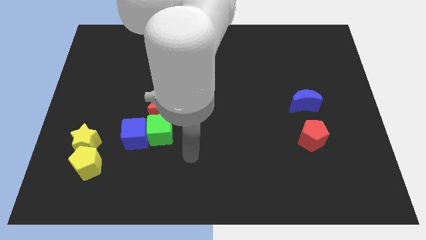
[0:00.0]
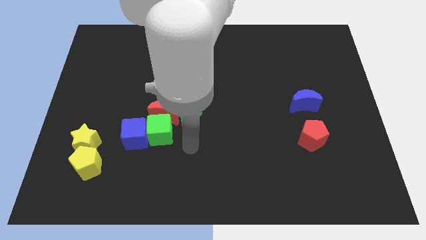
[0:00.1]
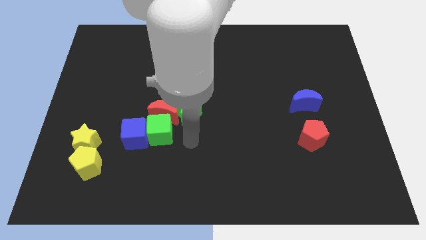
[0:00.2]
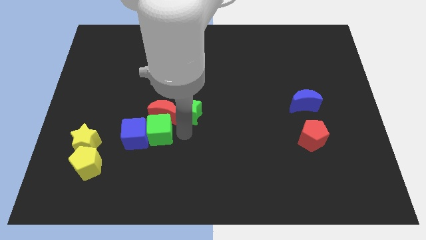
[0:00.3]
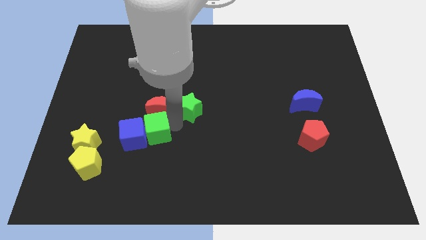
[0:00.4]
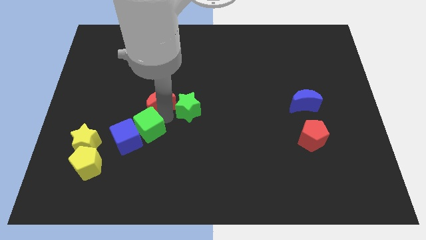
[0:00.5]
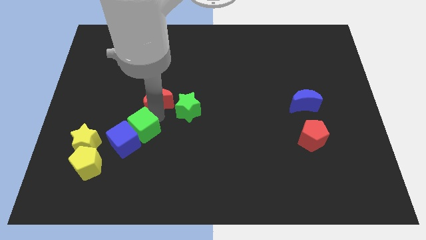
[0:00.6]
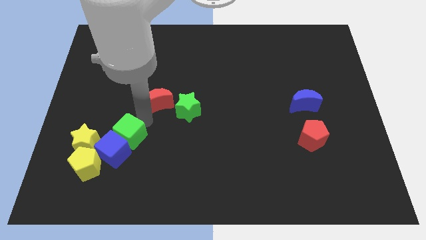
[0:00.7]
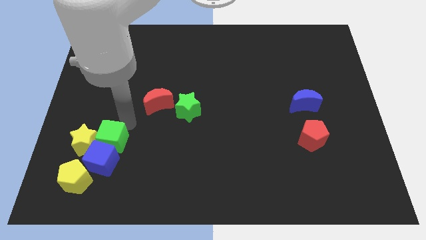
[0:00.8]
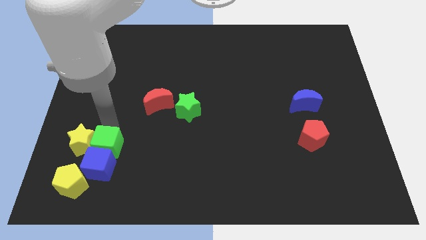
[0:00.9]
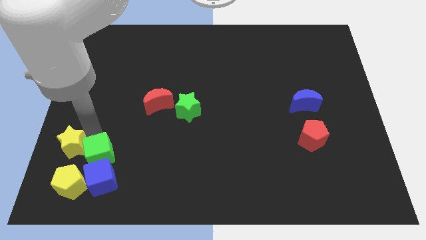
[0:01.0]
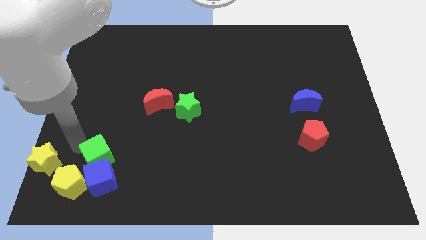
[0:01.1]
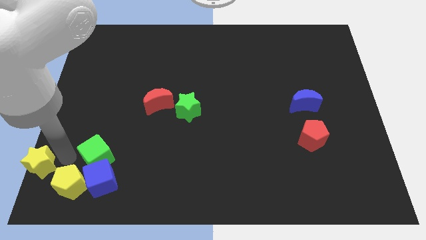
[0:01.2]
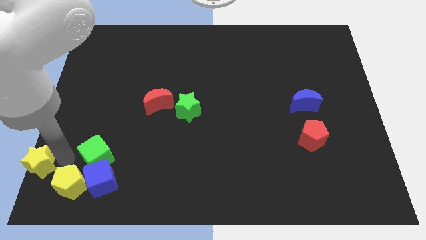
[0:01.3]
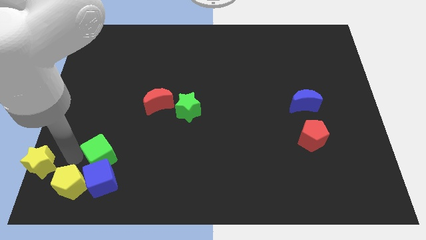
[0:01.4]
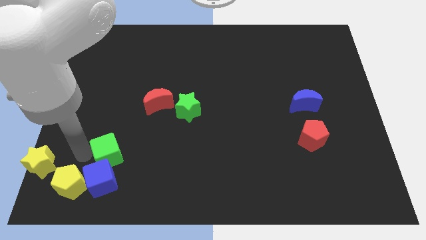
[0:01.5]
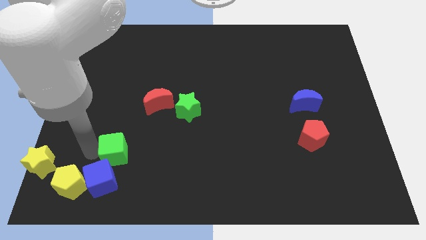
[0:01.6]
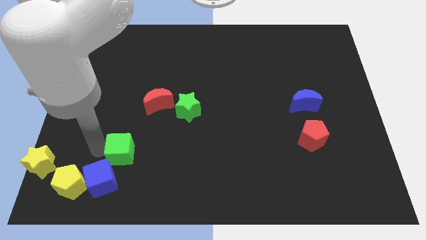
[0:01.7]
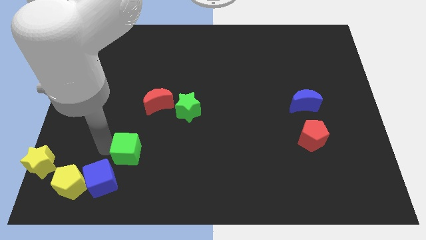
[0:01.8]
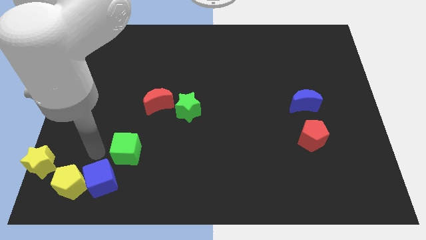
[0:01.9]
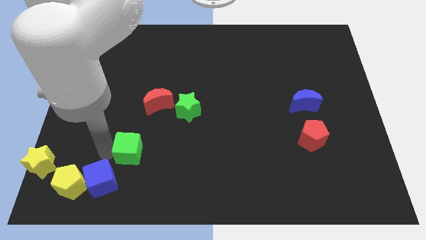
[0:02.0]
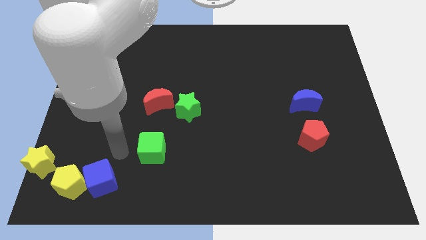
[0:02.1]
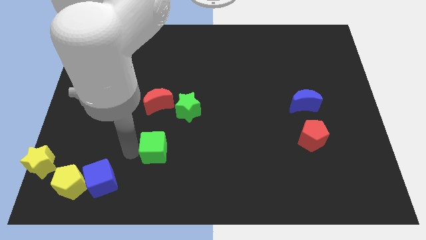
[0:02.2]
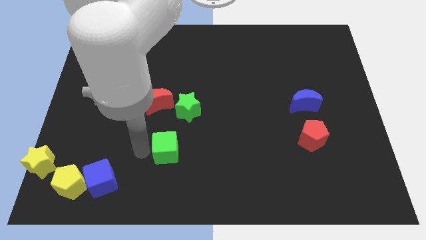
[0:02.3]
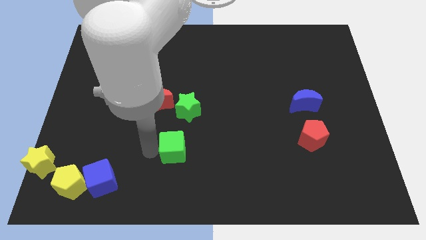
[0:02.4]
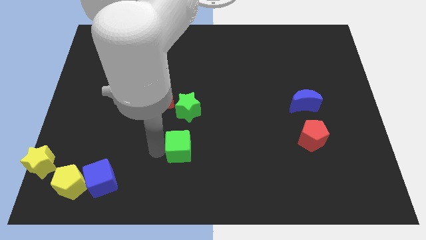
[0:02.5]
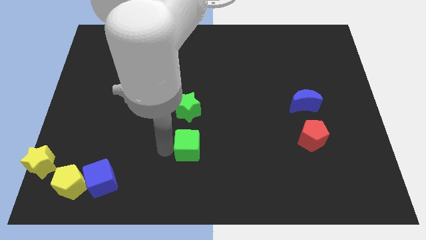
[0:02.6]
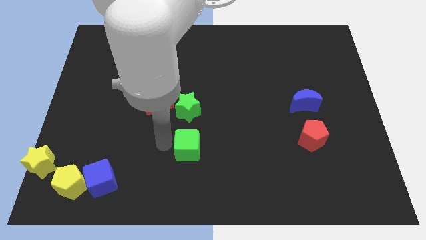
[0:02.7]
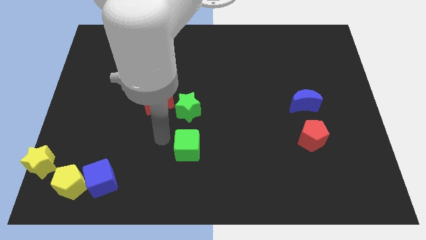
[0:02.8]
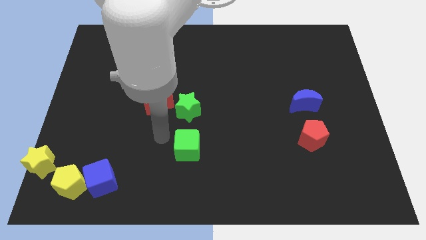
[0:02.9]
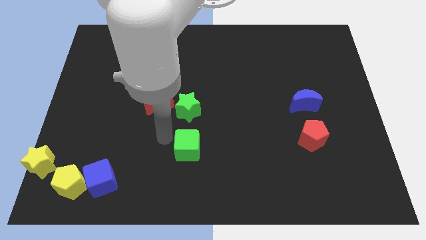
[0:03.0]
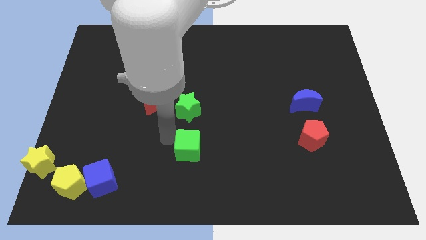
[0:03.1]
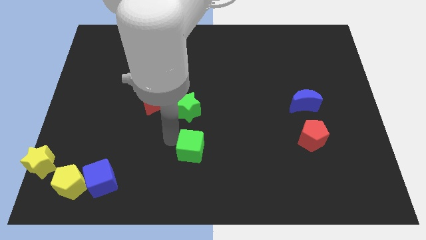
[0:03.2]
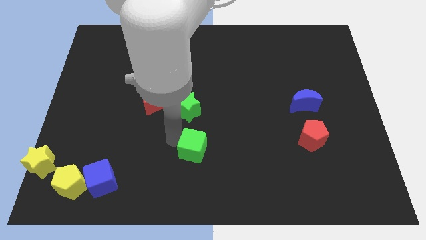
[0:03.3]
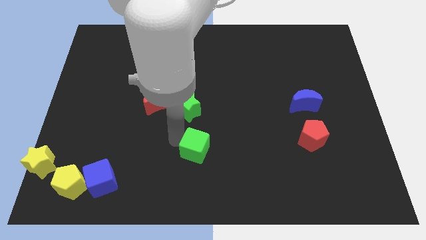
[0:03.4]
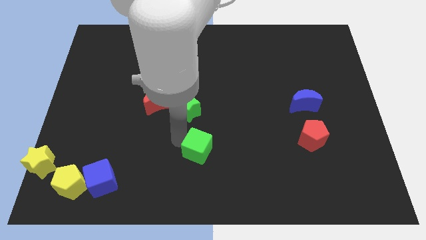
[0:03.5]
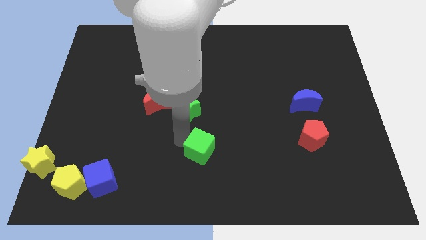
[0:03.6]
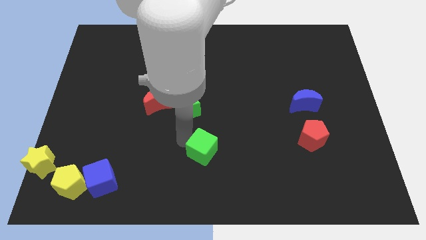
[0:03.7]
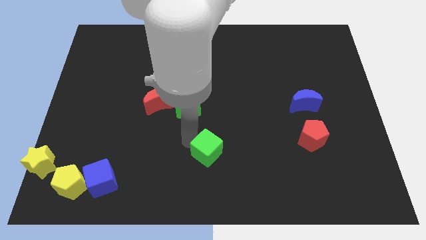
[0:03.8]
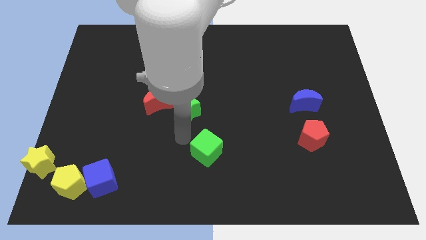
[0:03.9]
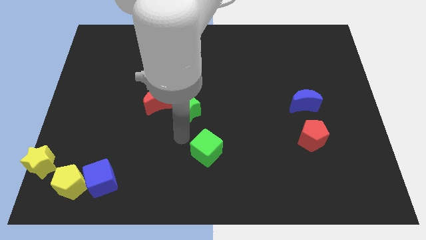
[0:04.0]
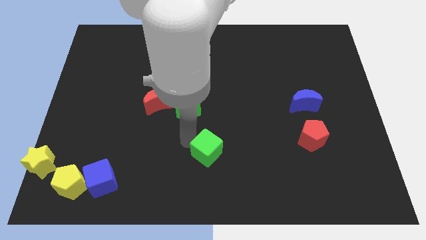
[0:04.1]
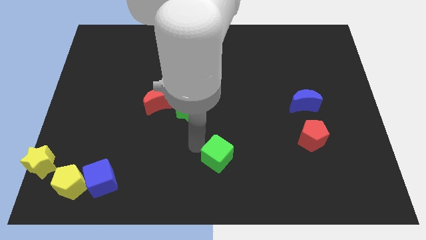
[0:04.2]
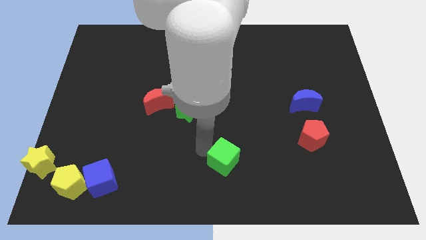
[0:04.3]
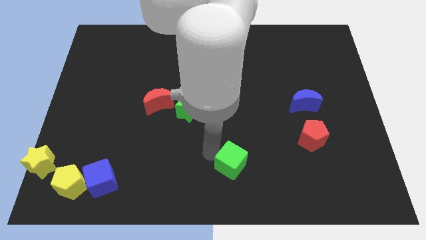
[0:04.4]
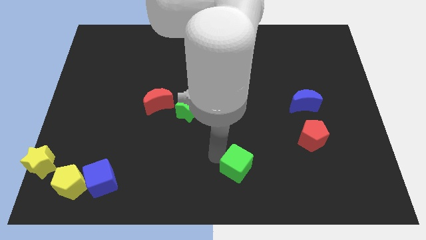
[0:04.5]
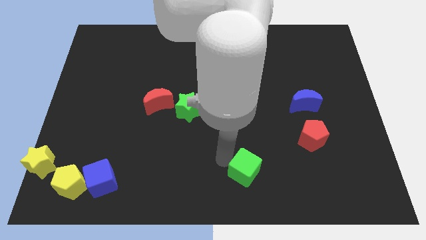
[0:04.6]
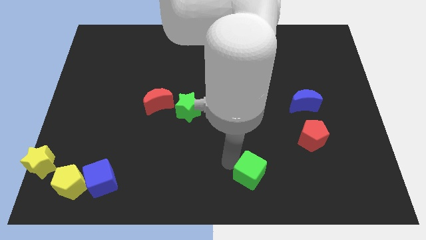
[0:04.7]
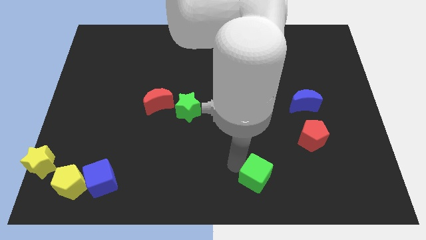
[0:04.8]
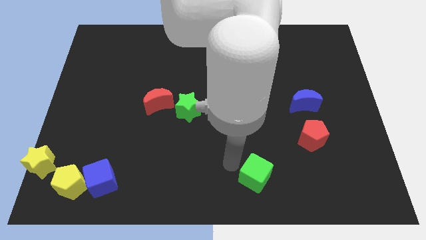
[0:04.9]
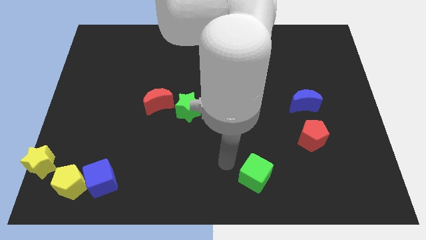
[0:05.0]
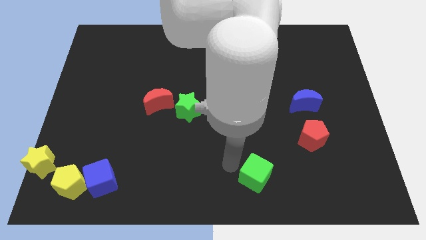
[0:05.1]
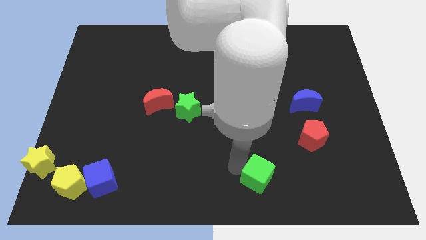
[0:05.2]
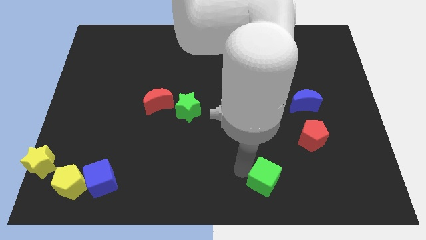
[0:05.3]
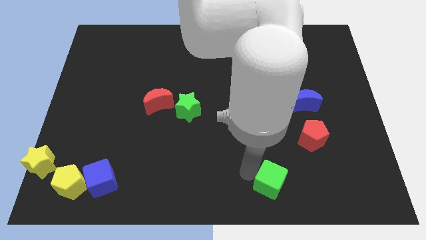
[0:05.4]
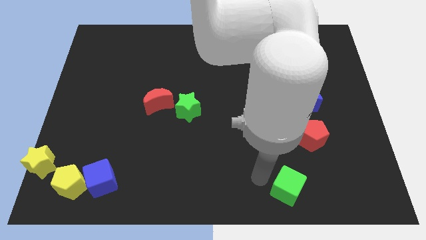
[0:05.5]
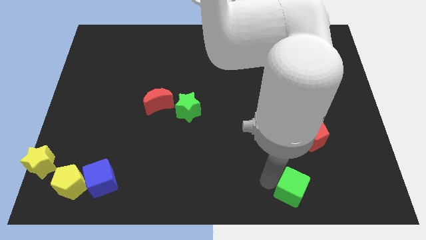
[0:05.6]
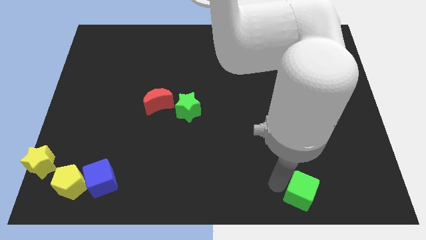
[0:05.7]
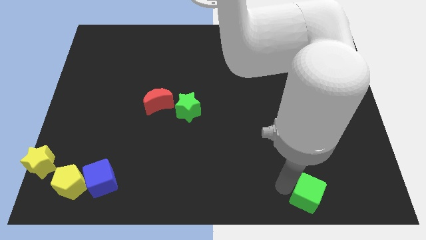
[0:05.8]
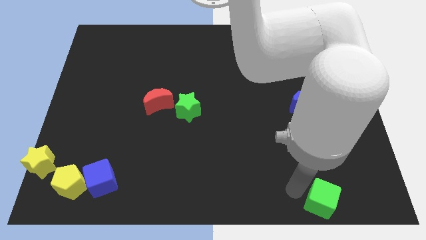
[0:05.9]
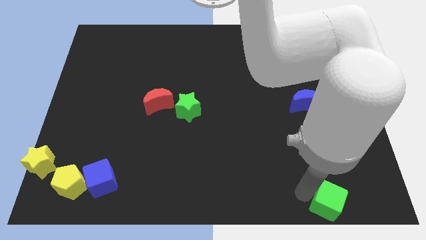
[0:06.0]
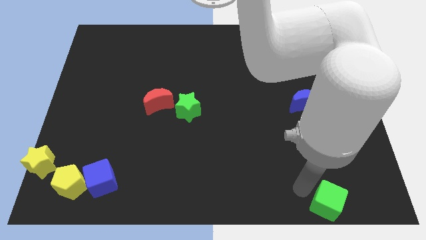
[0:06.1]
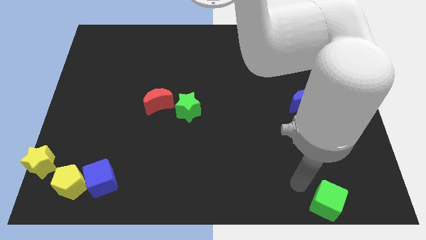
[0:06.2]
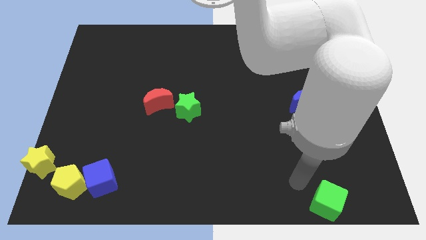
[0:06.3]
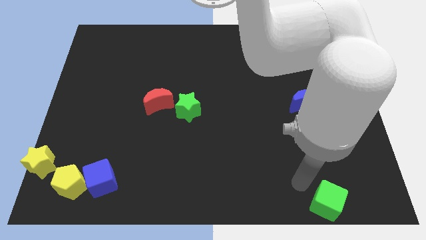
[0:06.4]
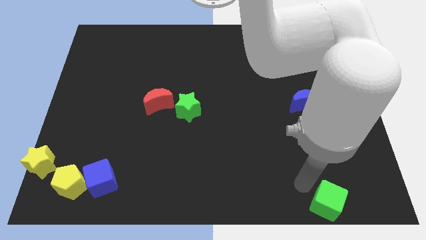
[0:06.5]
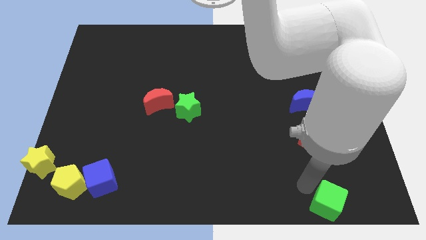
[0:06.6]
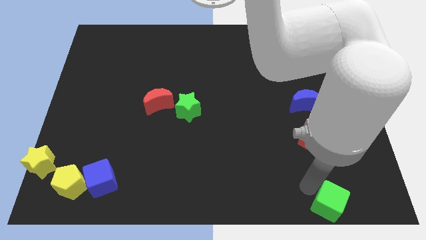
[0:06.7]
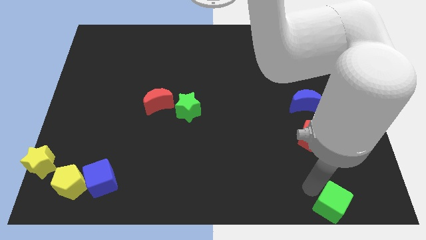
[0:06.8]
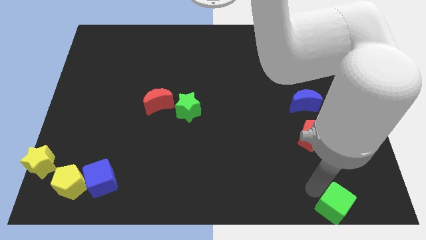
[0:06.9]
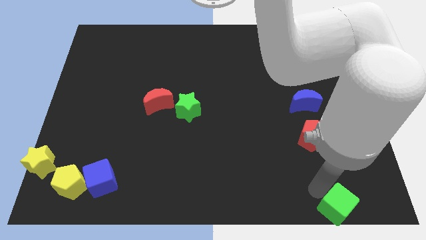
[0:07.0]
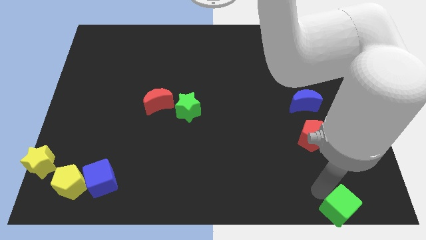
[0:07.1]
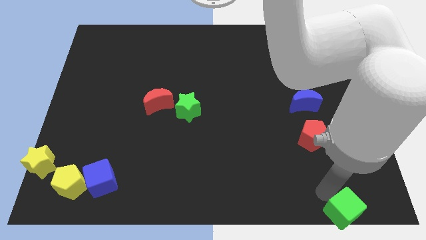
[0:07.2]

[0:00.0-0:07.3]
slide the green cube to the lower right corner
